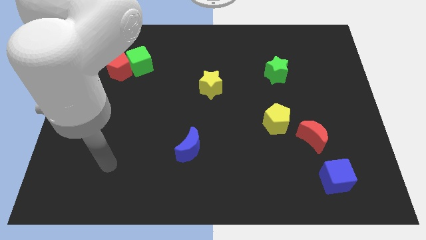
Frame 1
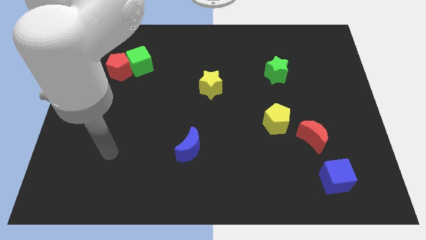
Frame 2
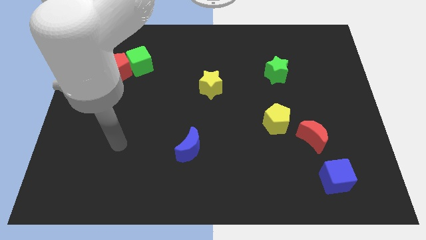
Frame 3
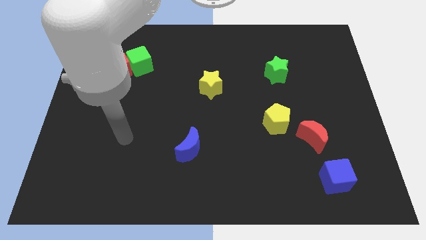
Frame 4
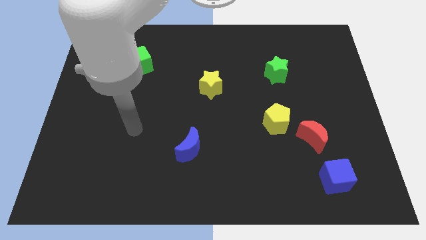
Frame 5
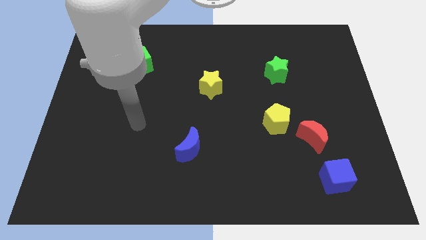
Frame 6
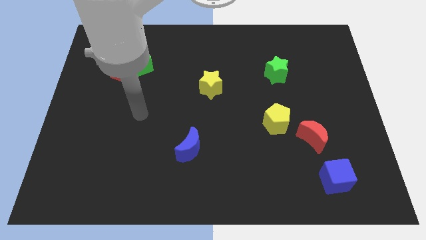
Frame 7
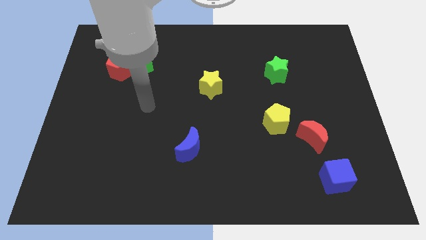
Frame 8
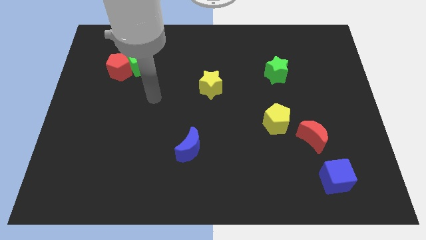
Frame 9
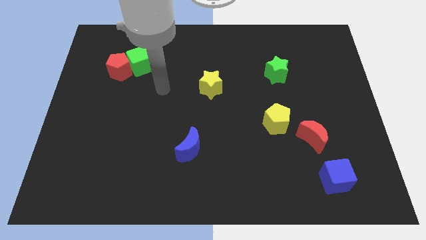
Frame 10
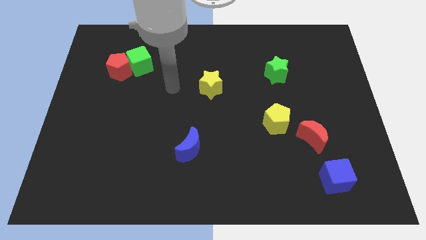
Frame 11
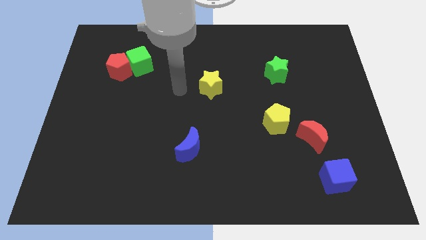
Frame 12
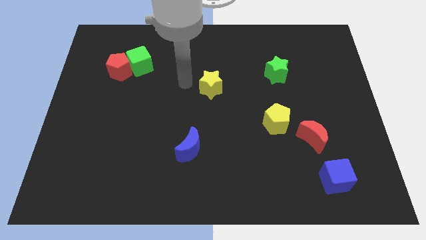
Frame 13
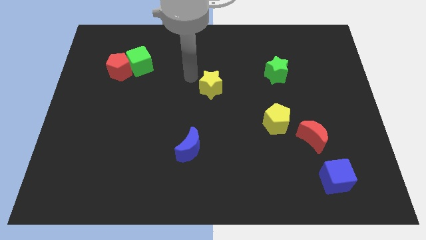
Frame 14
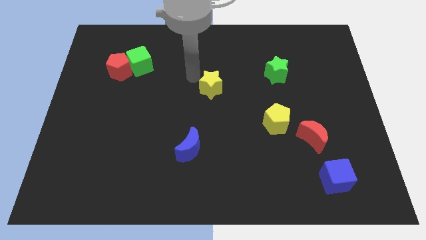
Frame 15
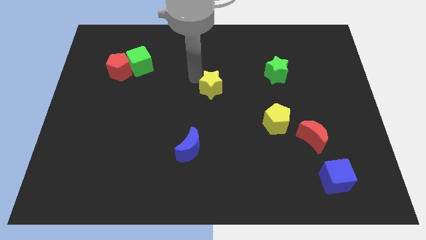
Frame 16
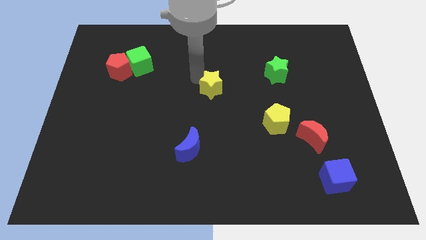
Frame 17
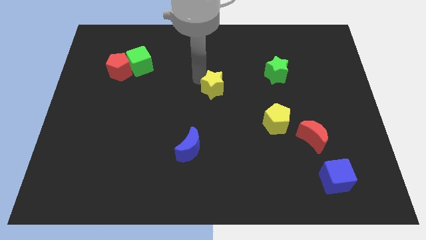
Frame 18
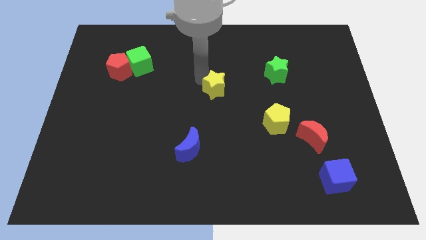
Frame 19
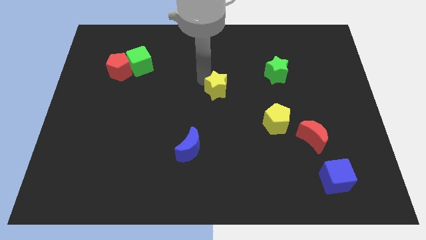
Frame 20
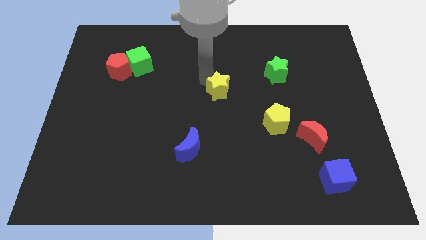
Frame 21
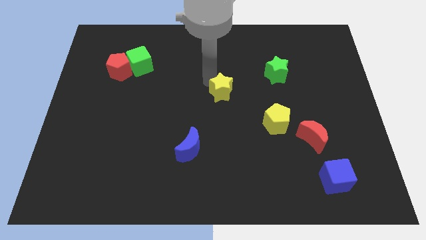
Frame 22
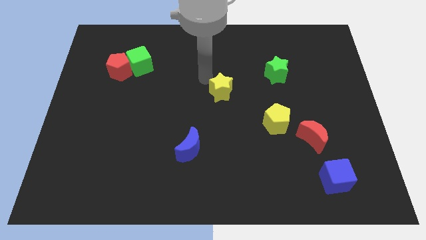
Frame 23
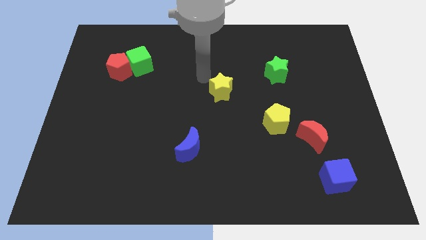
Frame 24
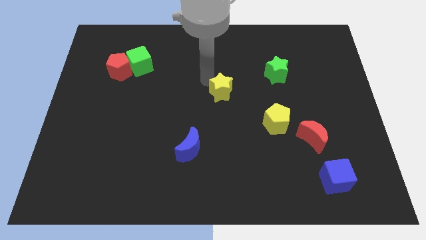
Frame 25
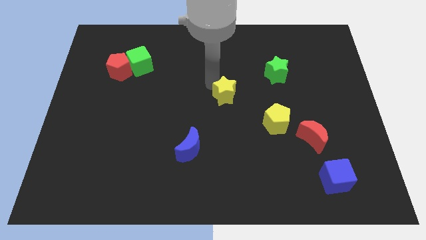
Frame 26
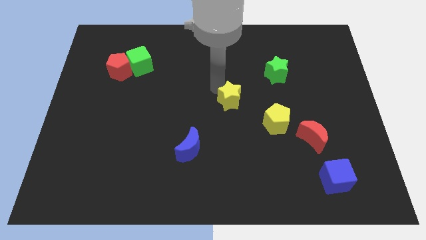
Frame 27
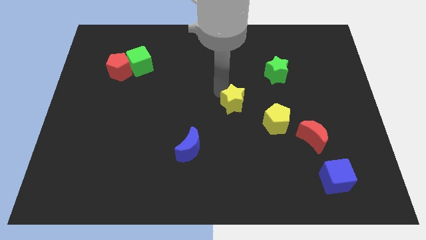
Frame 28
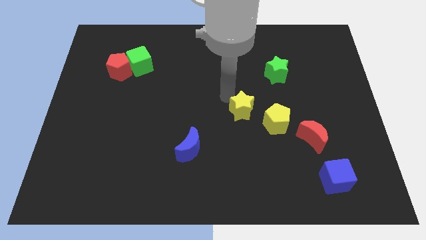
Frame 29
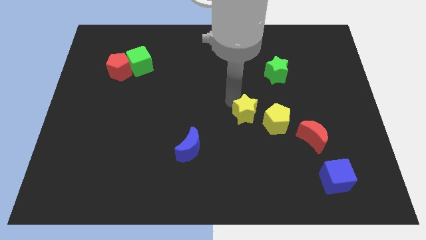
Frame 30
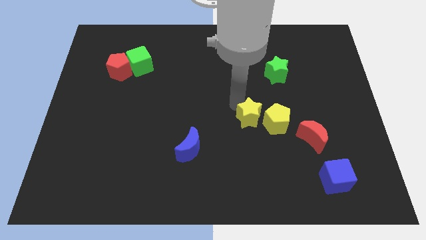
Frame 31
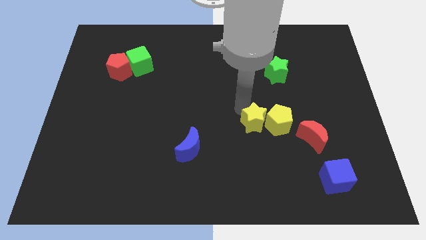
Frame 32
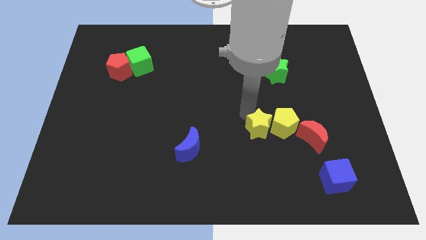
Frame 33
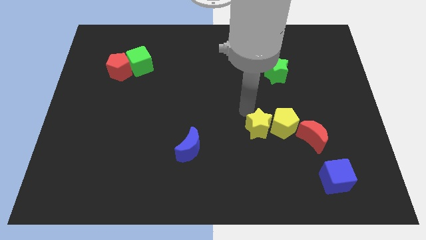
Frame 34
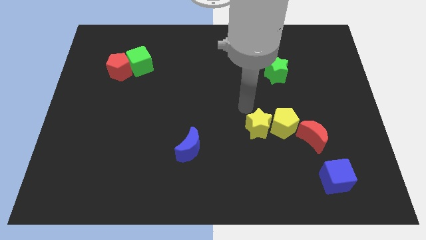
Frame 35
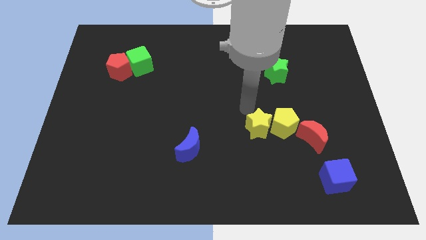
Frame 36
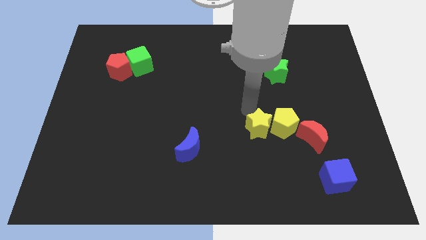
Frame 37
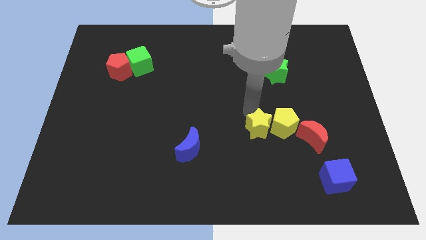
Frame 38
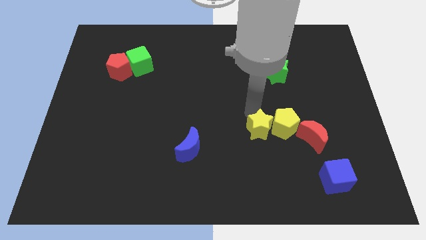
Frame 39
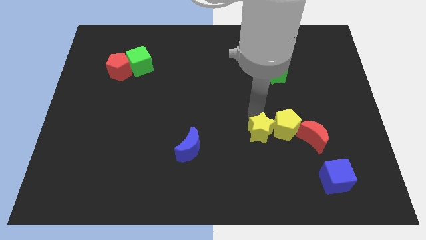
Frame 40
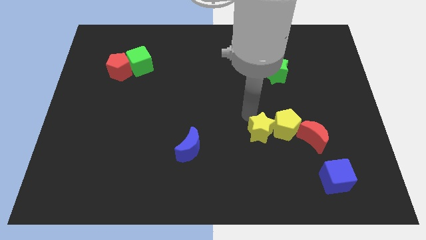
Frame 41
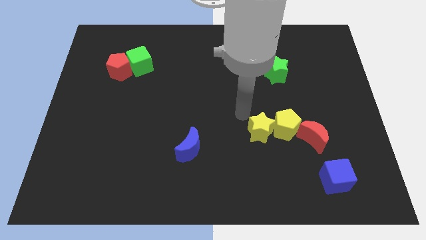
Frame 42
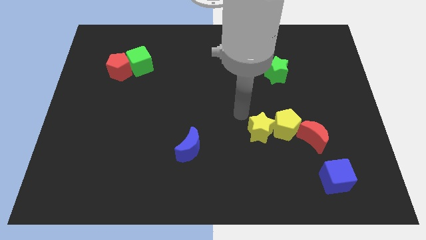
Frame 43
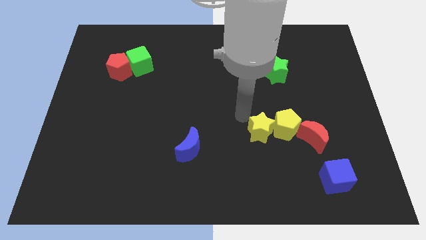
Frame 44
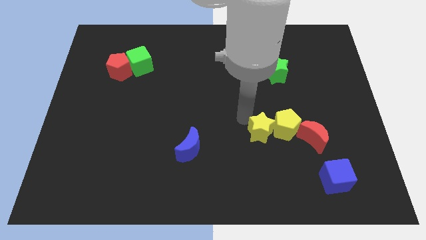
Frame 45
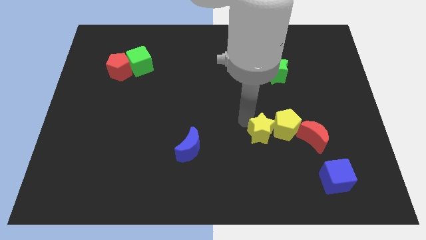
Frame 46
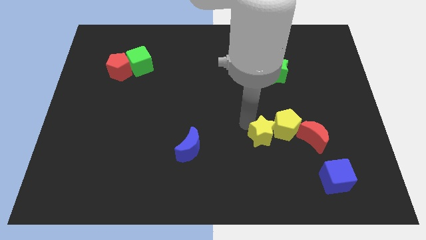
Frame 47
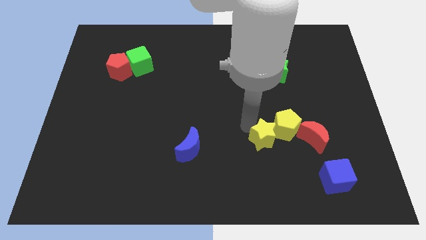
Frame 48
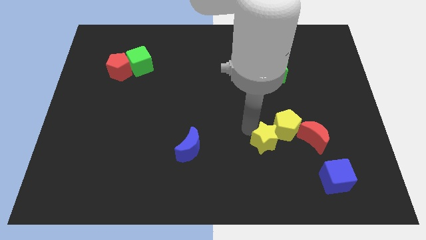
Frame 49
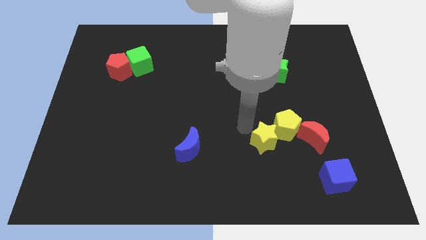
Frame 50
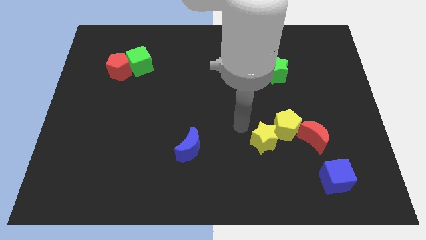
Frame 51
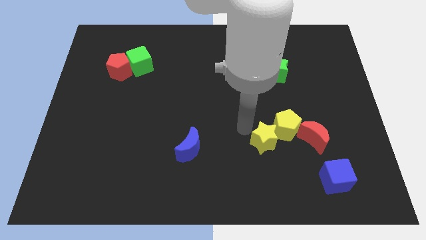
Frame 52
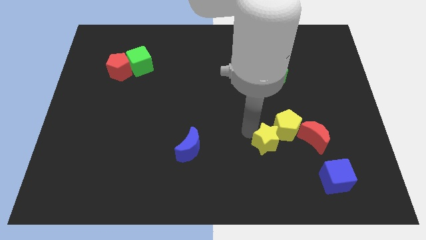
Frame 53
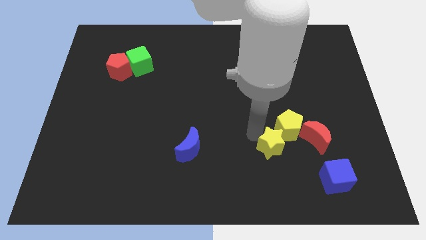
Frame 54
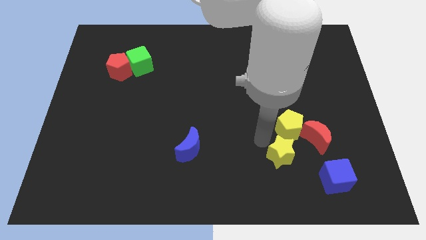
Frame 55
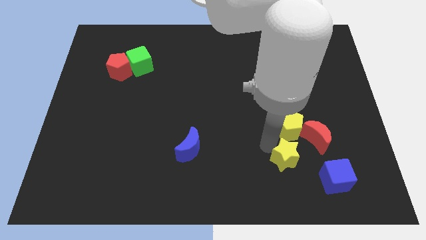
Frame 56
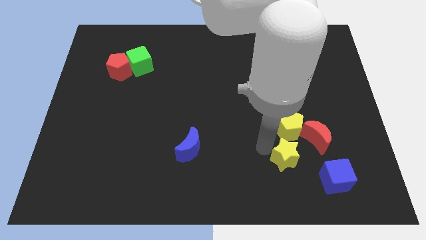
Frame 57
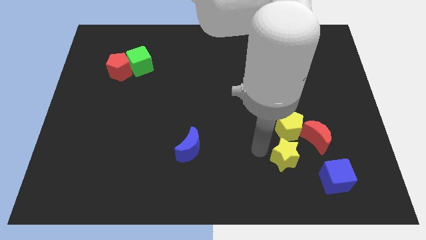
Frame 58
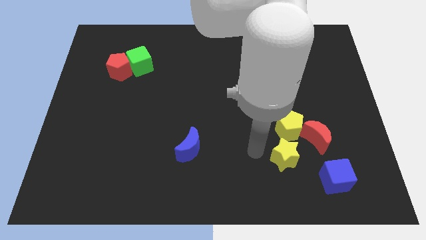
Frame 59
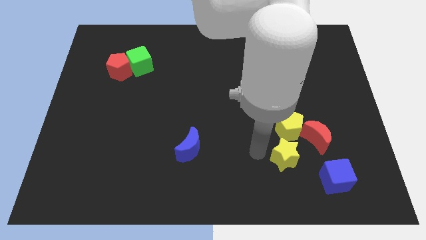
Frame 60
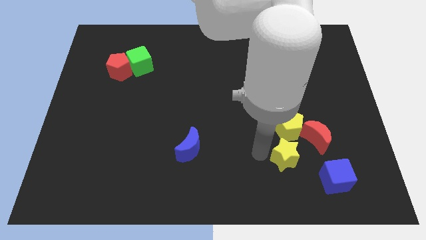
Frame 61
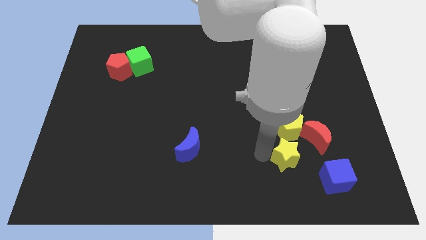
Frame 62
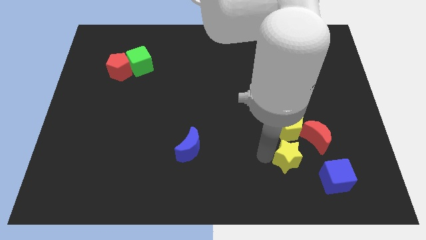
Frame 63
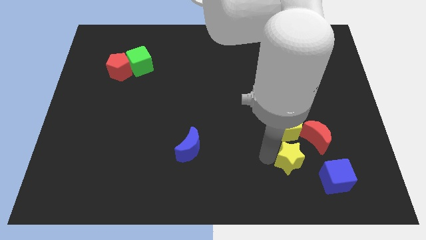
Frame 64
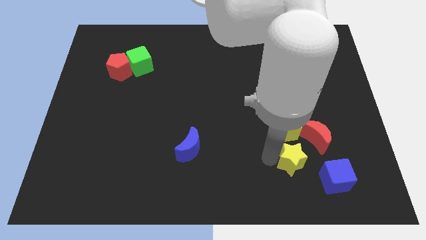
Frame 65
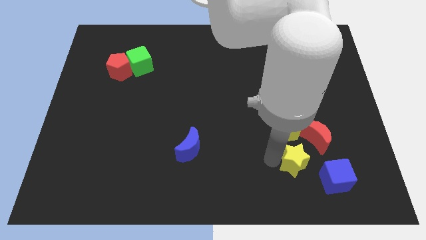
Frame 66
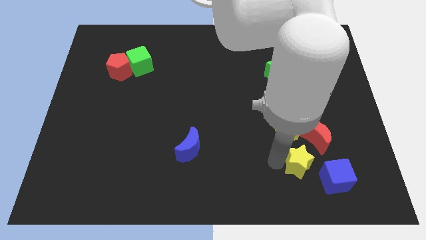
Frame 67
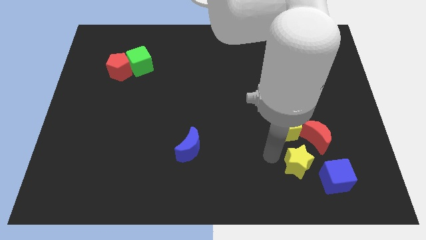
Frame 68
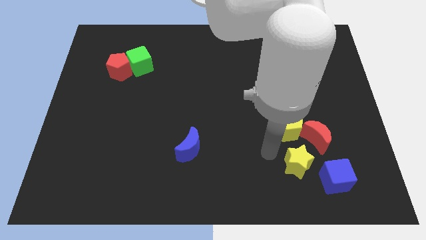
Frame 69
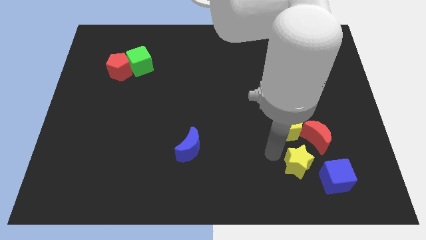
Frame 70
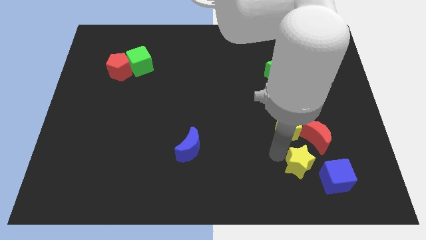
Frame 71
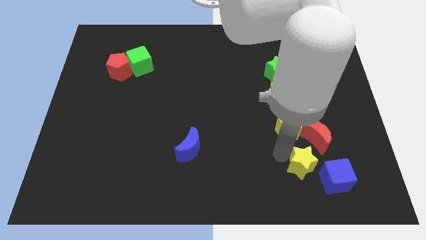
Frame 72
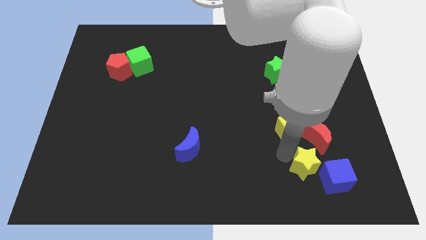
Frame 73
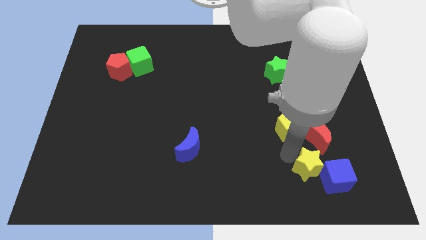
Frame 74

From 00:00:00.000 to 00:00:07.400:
move the yellow star next to the blue cube
